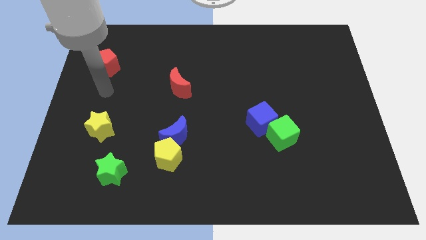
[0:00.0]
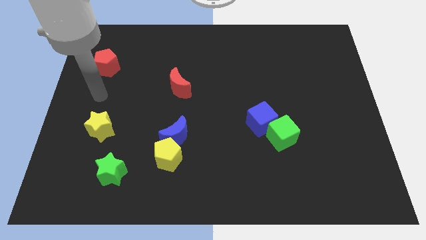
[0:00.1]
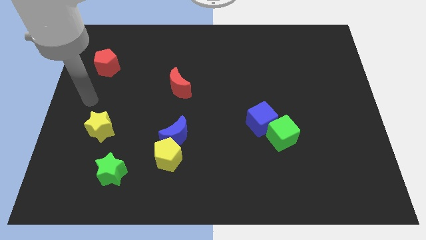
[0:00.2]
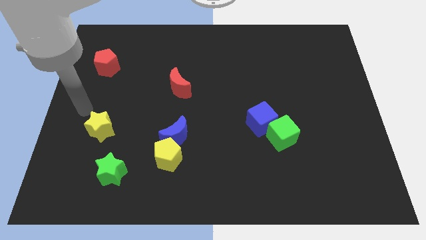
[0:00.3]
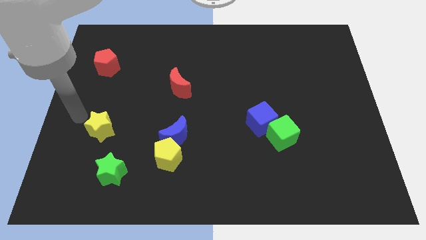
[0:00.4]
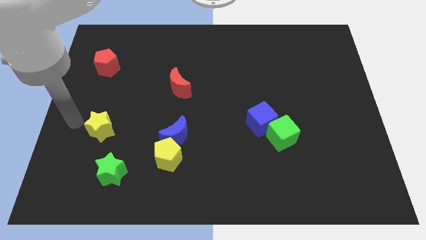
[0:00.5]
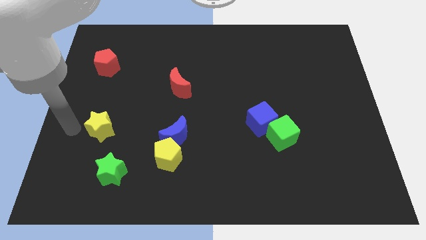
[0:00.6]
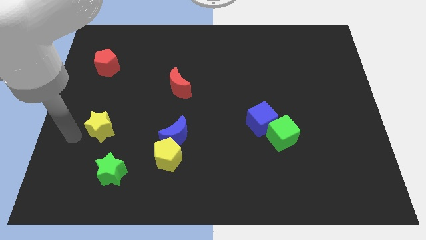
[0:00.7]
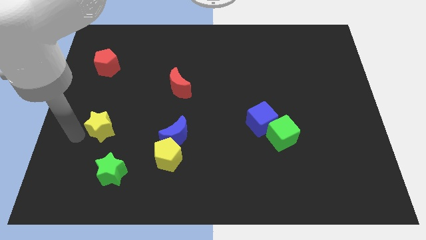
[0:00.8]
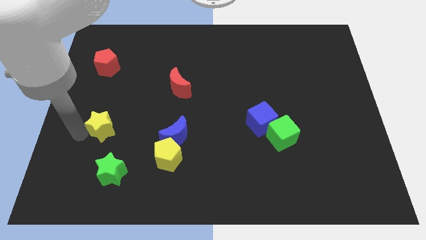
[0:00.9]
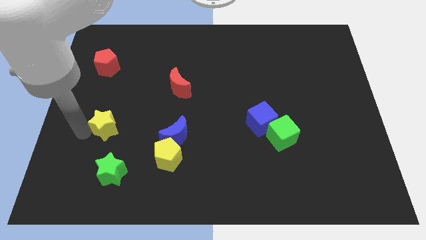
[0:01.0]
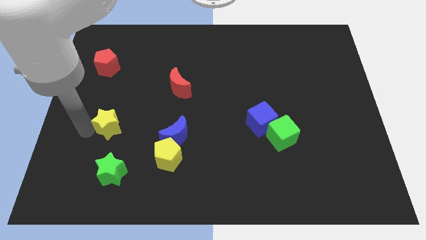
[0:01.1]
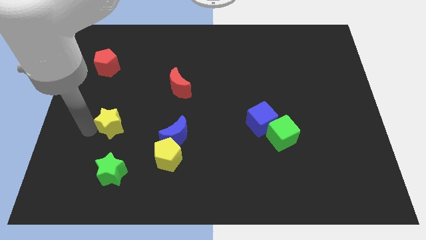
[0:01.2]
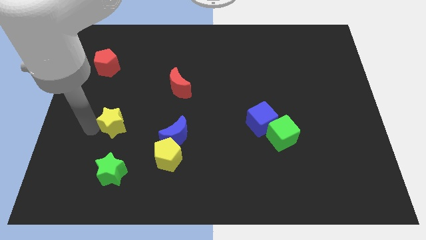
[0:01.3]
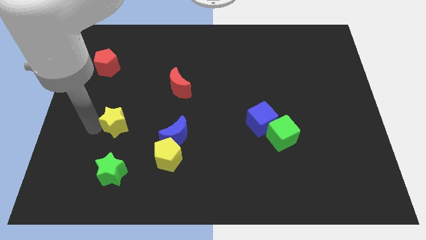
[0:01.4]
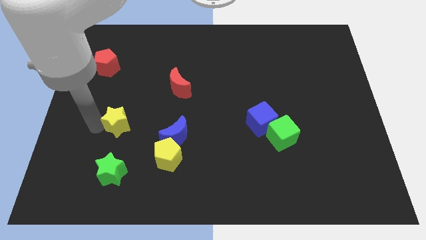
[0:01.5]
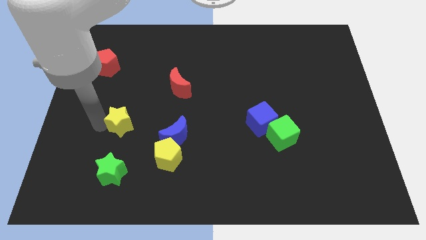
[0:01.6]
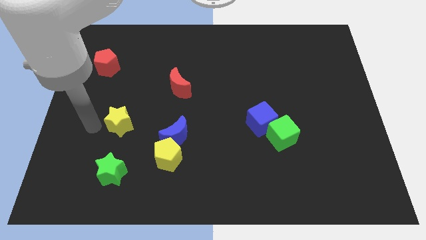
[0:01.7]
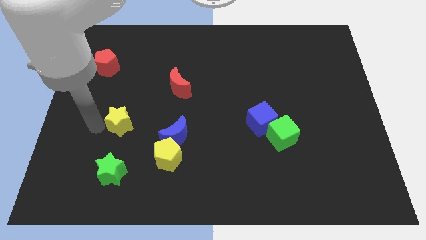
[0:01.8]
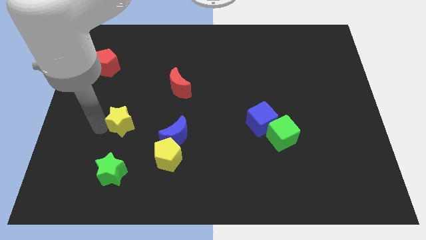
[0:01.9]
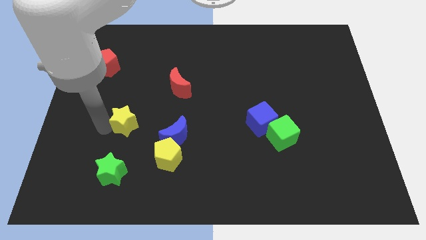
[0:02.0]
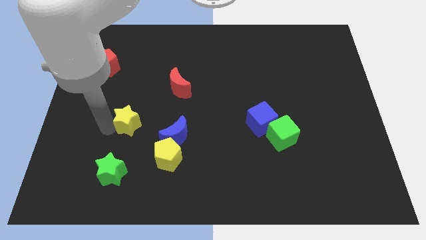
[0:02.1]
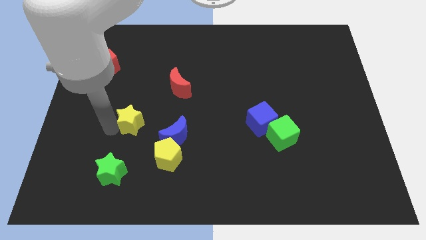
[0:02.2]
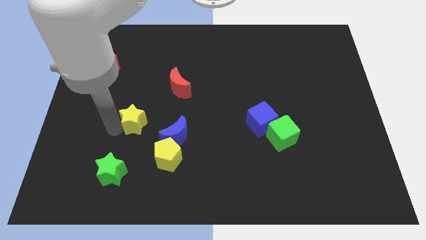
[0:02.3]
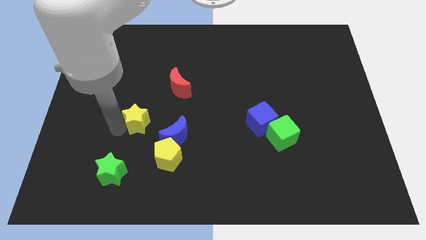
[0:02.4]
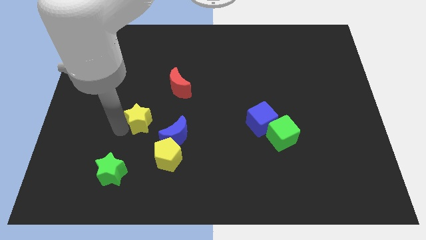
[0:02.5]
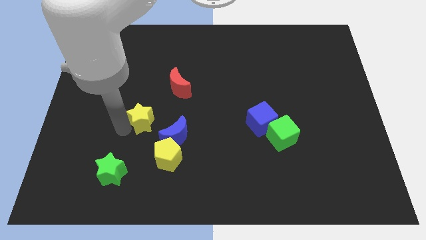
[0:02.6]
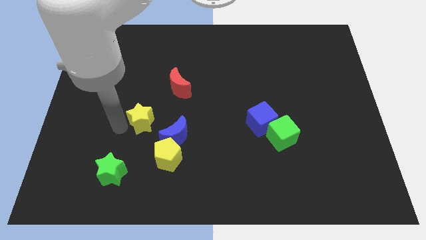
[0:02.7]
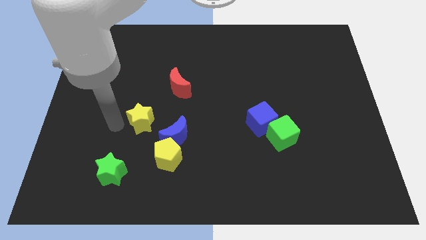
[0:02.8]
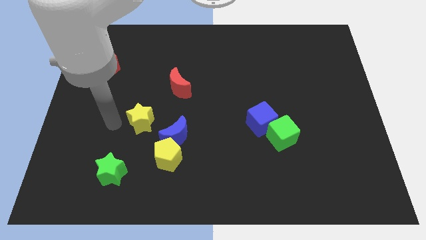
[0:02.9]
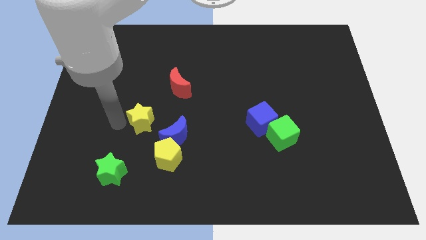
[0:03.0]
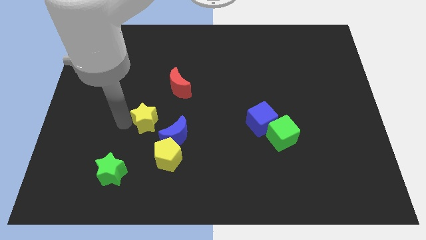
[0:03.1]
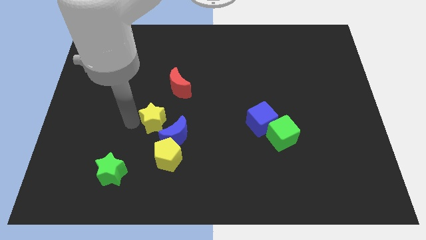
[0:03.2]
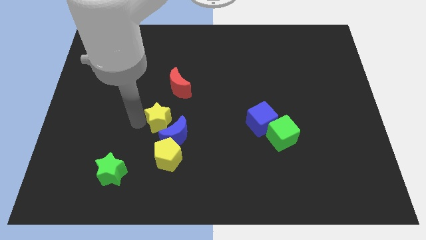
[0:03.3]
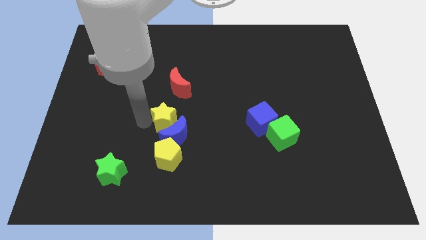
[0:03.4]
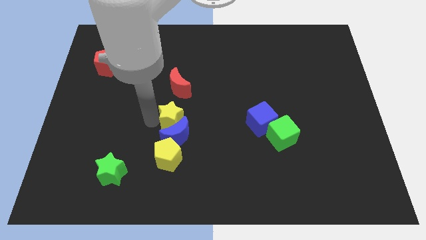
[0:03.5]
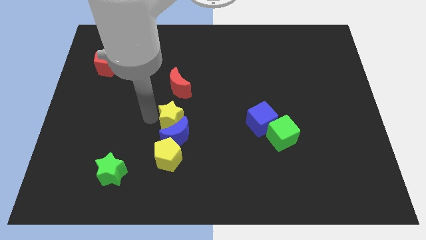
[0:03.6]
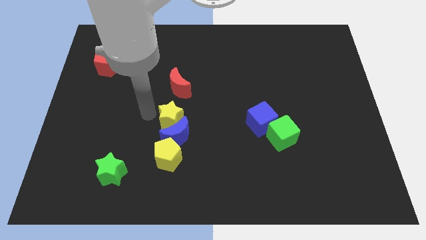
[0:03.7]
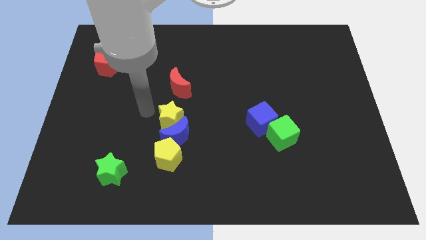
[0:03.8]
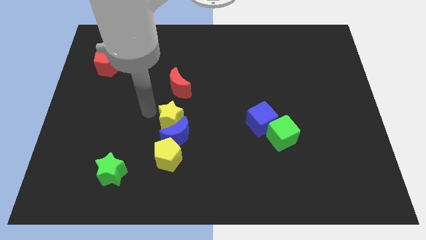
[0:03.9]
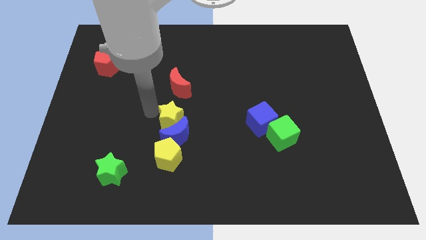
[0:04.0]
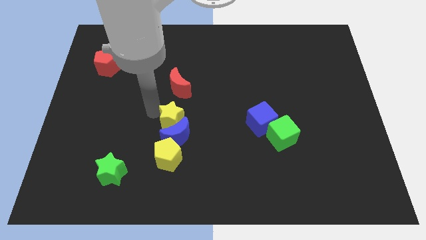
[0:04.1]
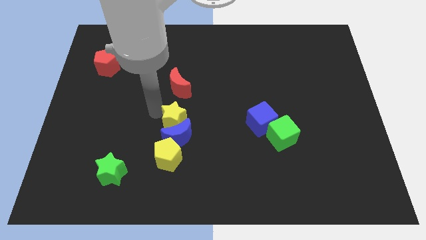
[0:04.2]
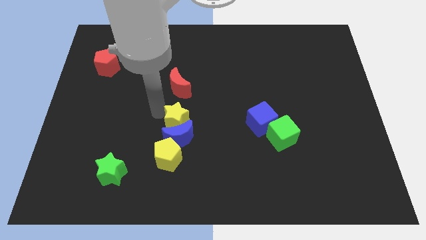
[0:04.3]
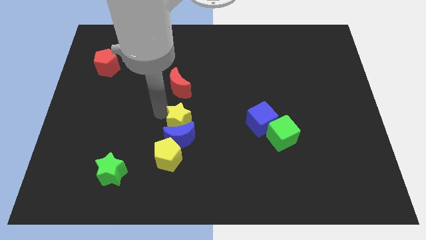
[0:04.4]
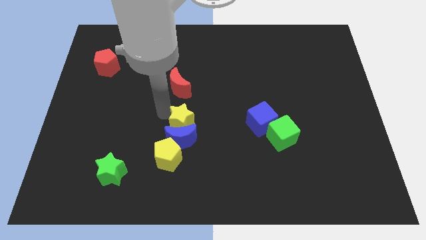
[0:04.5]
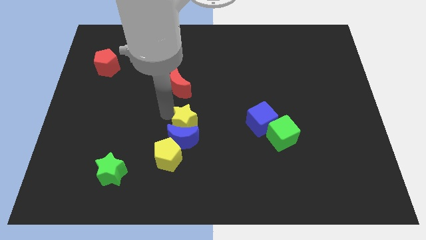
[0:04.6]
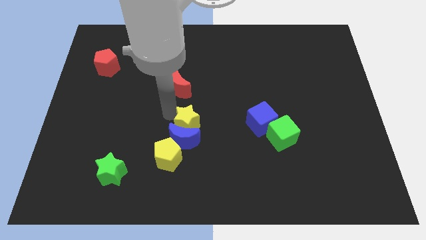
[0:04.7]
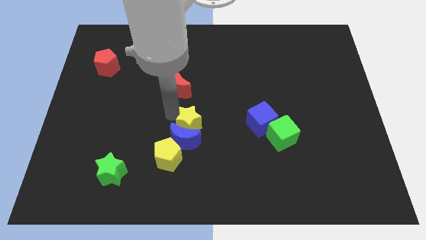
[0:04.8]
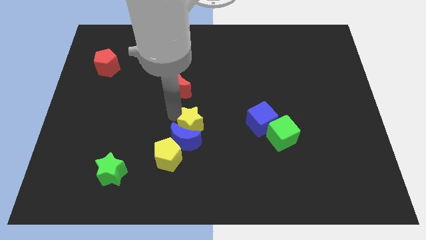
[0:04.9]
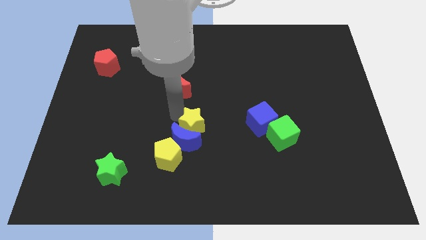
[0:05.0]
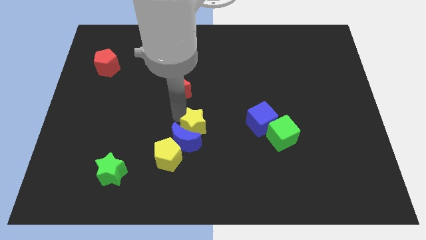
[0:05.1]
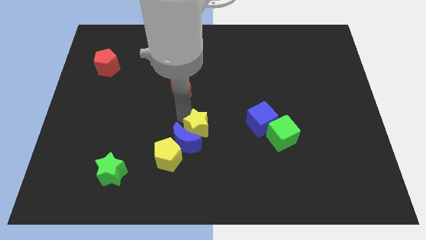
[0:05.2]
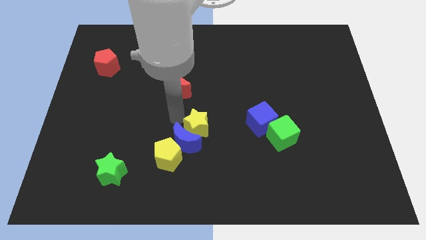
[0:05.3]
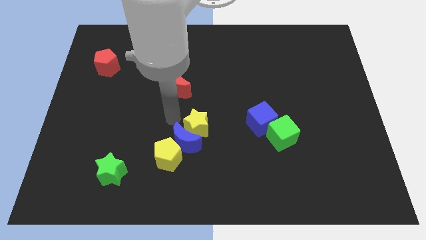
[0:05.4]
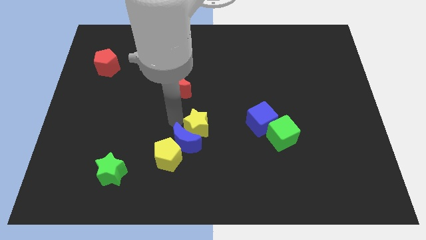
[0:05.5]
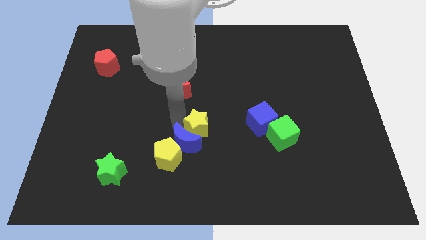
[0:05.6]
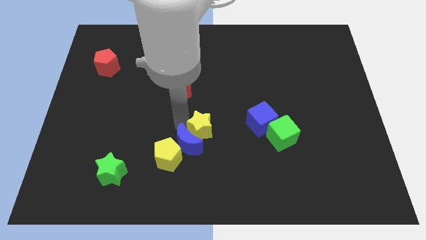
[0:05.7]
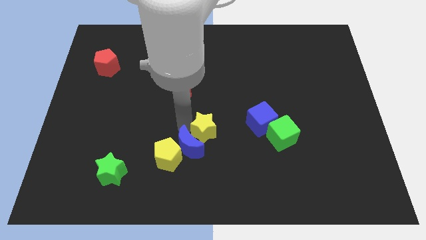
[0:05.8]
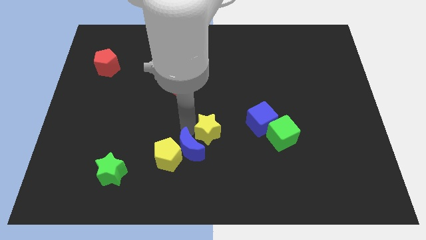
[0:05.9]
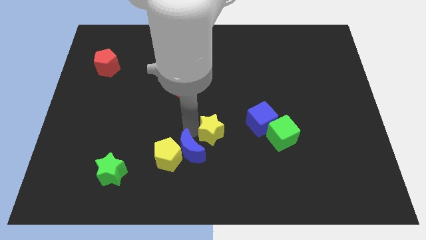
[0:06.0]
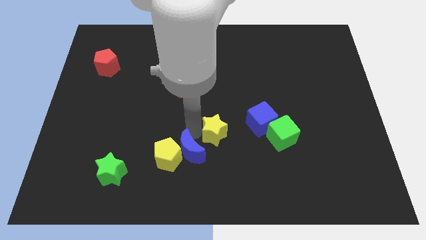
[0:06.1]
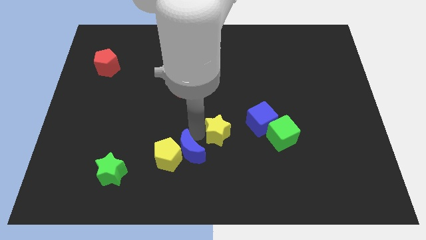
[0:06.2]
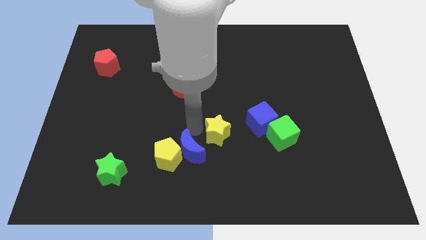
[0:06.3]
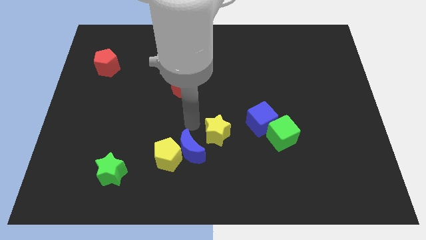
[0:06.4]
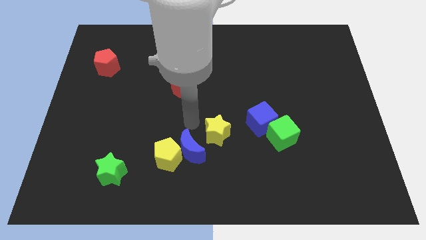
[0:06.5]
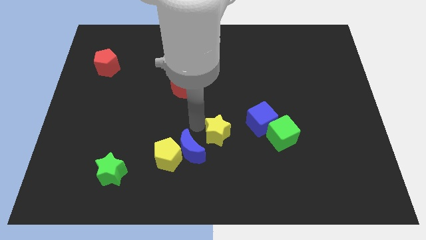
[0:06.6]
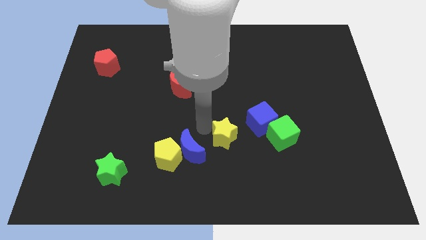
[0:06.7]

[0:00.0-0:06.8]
move the yellow star to the bottom left of the blue cube

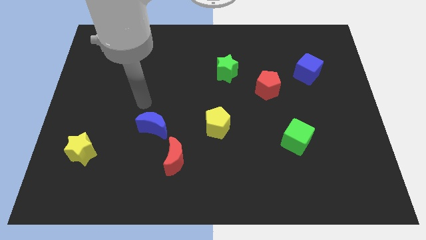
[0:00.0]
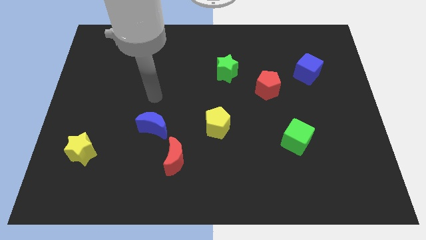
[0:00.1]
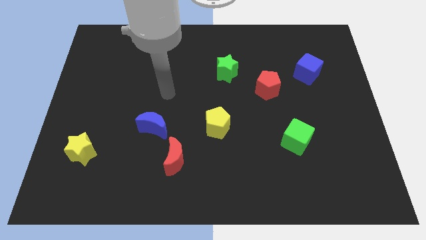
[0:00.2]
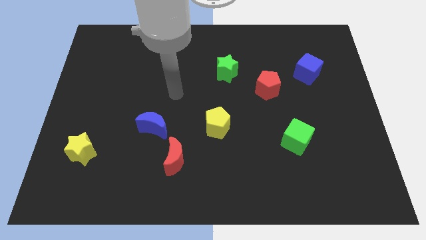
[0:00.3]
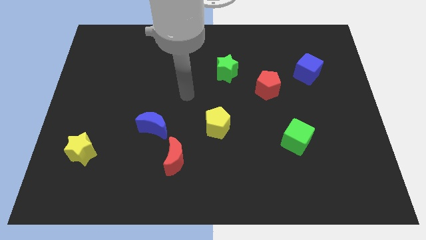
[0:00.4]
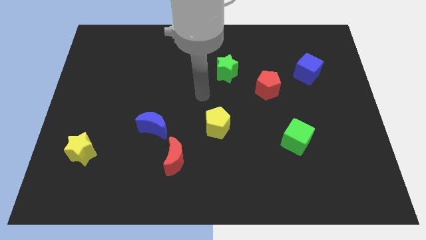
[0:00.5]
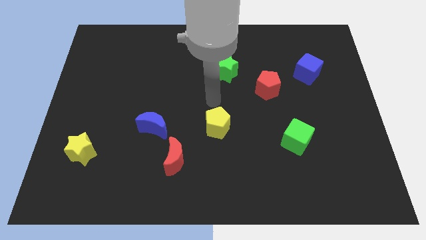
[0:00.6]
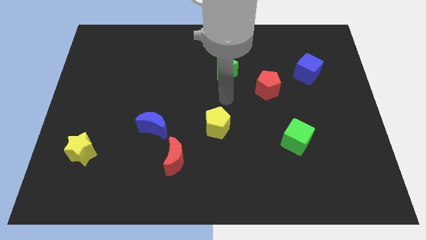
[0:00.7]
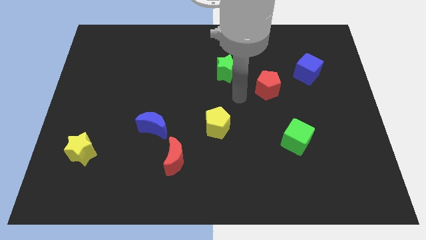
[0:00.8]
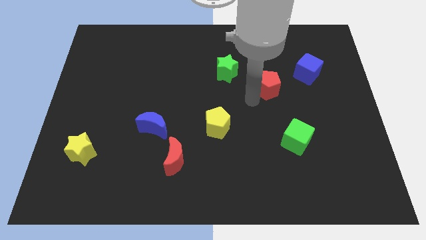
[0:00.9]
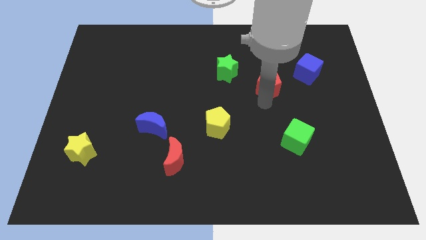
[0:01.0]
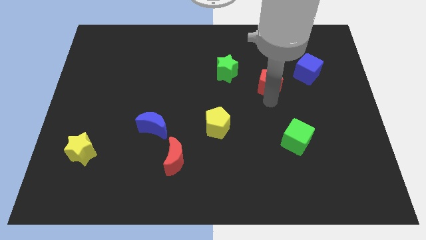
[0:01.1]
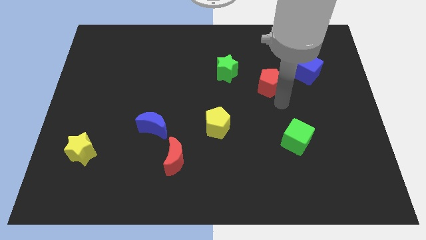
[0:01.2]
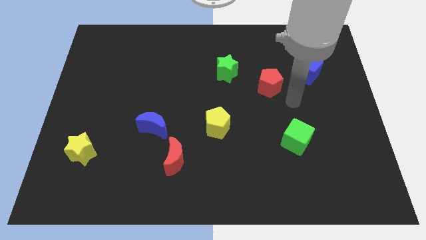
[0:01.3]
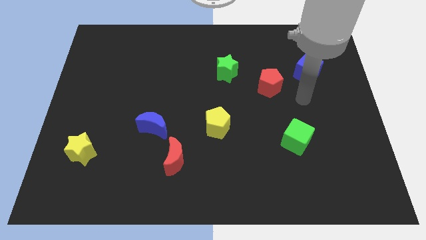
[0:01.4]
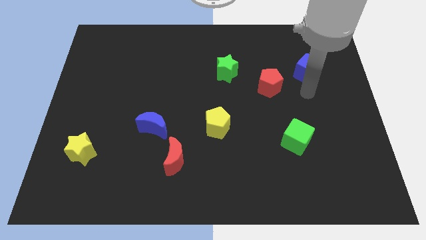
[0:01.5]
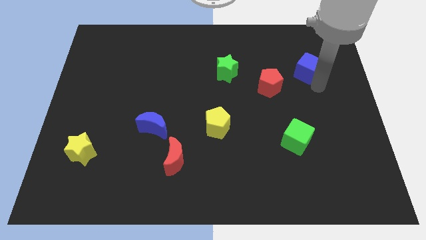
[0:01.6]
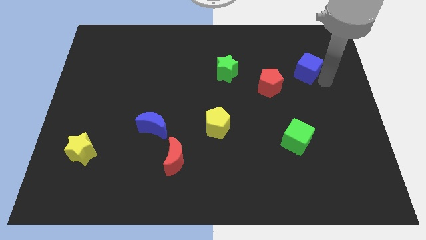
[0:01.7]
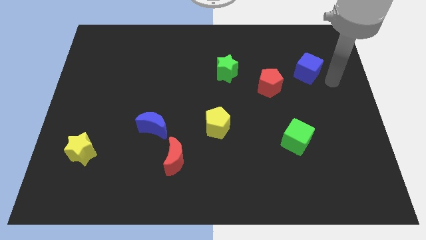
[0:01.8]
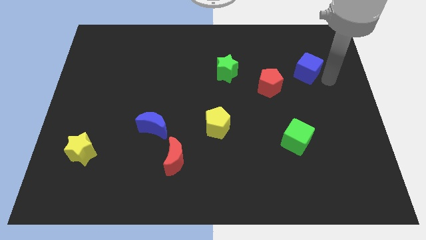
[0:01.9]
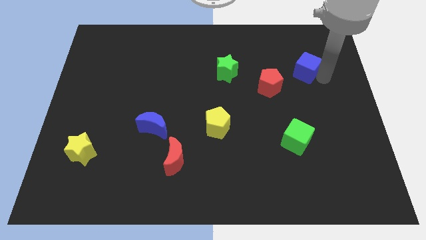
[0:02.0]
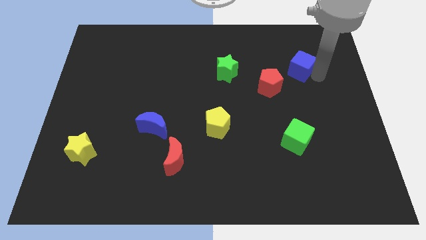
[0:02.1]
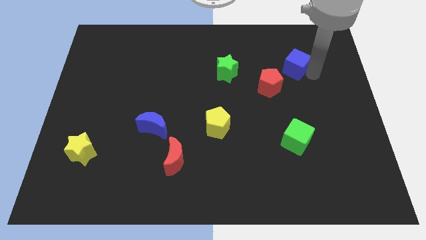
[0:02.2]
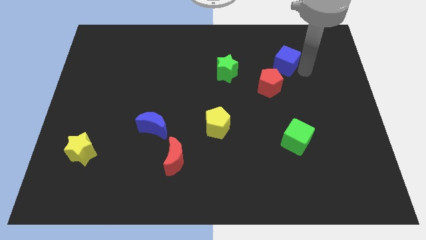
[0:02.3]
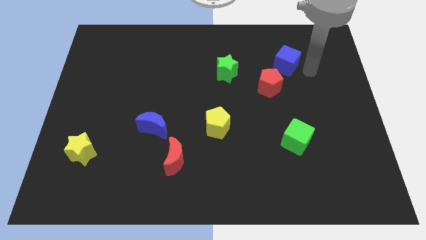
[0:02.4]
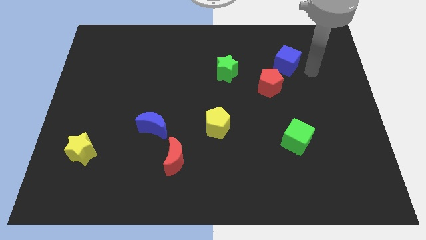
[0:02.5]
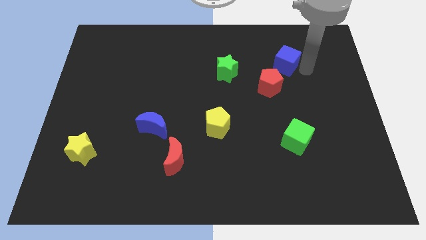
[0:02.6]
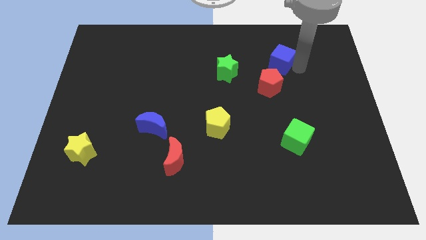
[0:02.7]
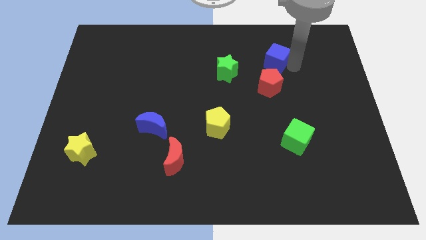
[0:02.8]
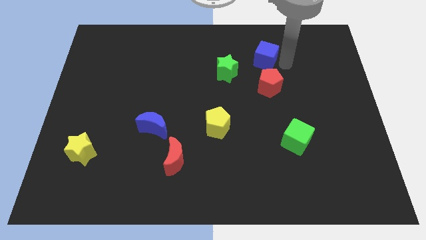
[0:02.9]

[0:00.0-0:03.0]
slide the blue cube to the top right of the green star
